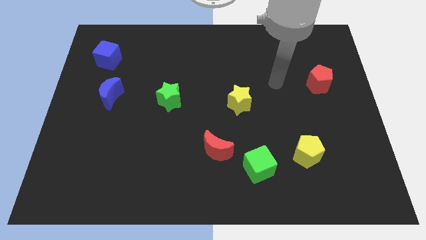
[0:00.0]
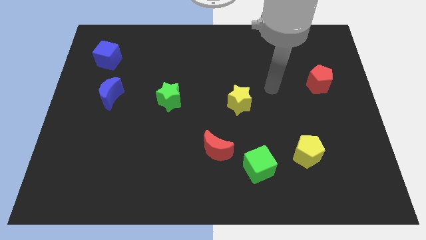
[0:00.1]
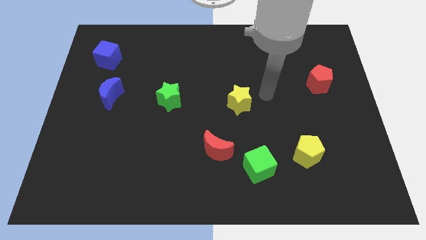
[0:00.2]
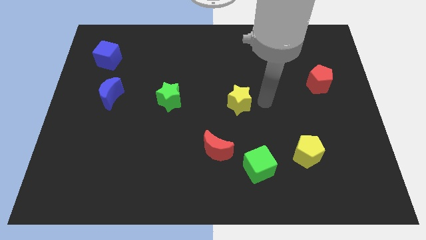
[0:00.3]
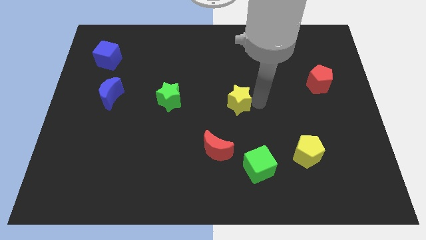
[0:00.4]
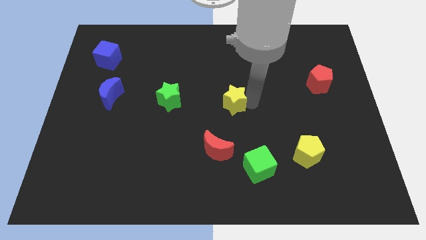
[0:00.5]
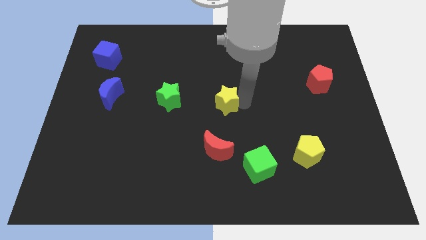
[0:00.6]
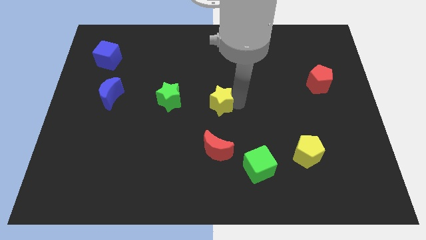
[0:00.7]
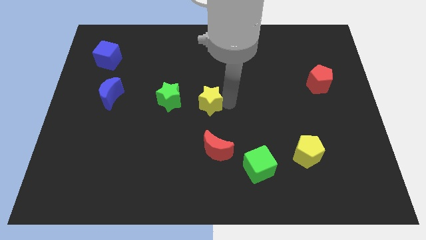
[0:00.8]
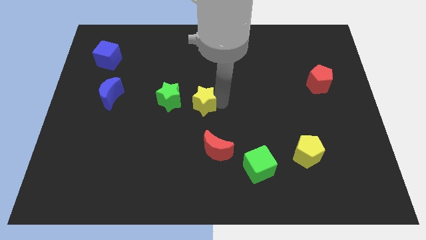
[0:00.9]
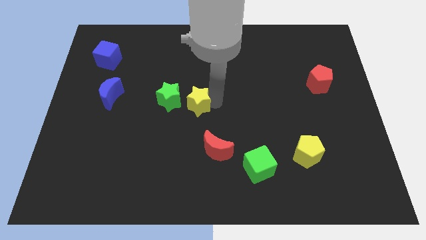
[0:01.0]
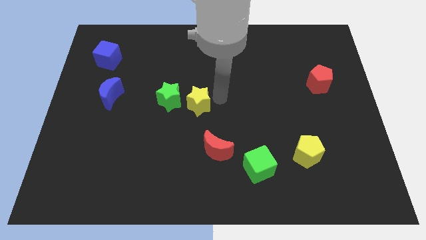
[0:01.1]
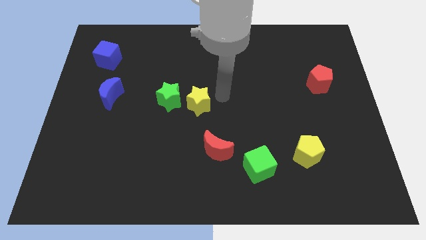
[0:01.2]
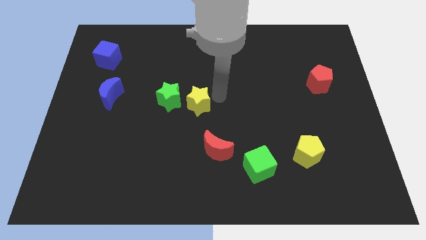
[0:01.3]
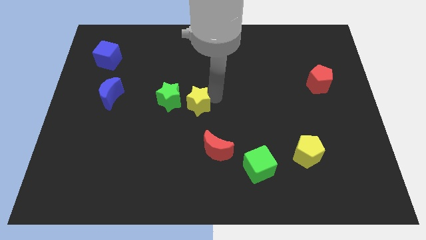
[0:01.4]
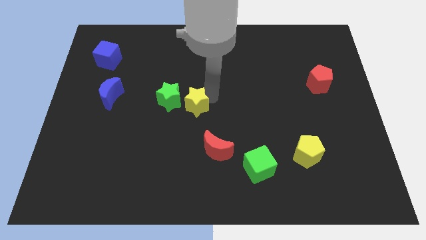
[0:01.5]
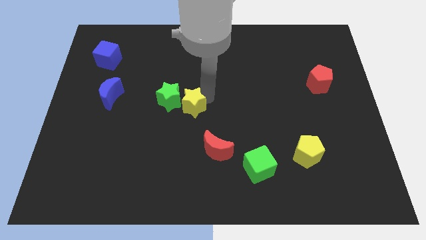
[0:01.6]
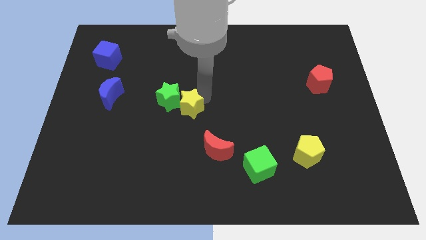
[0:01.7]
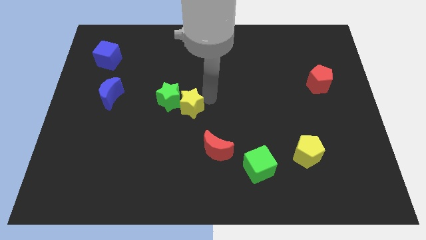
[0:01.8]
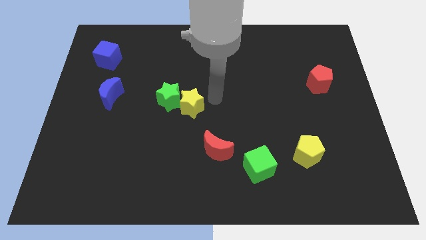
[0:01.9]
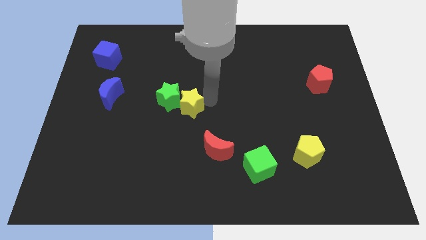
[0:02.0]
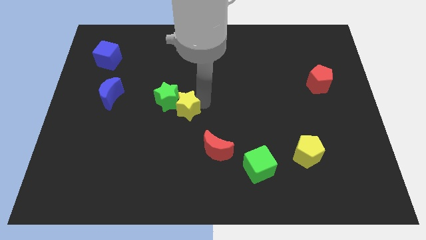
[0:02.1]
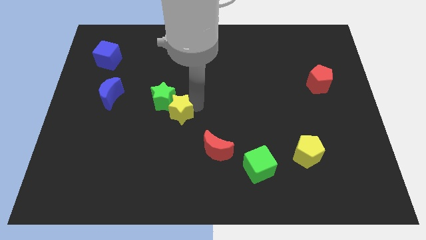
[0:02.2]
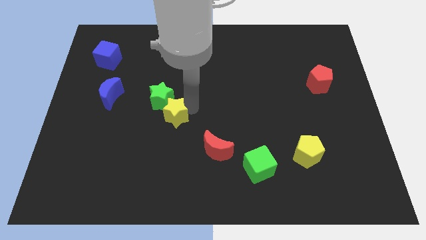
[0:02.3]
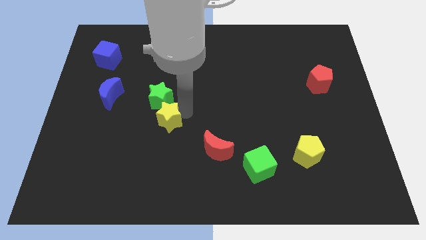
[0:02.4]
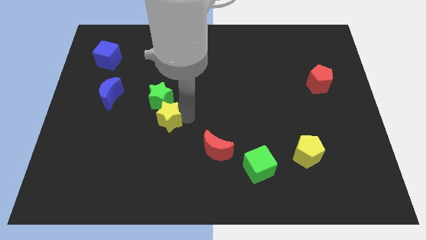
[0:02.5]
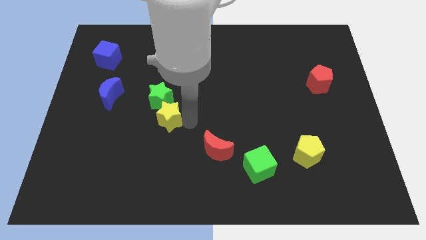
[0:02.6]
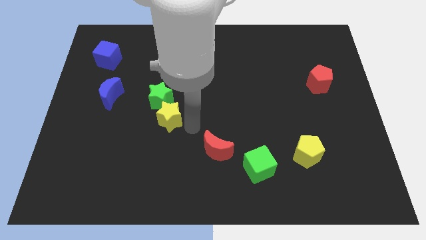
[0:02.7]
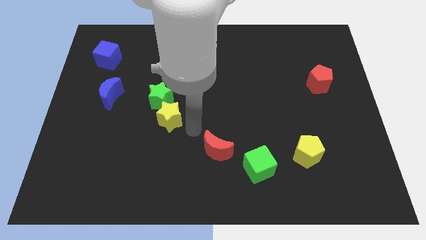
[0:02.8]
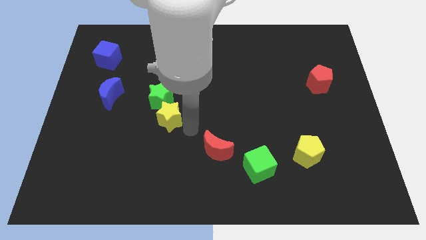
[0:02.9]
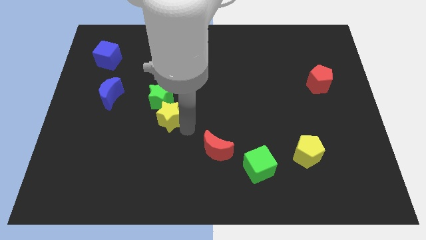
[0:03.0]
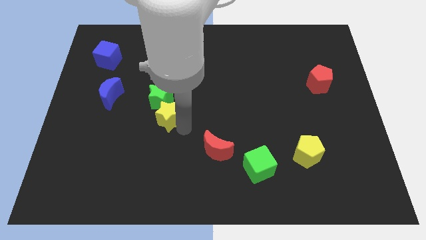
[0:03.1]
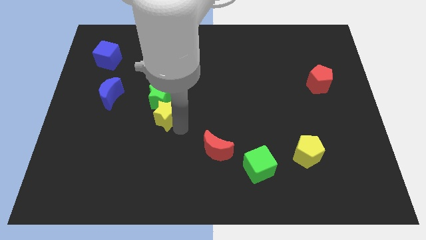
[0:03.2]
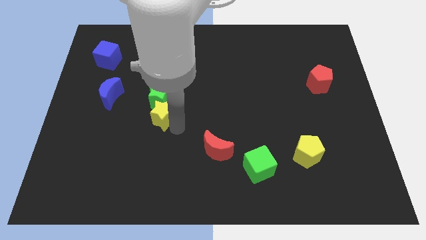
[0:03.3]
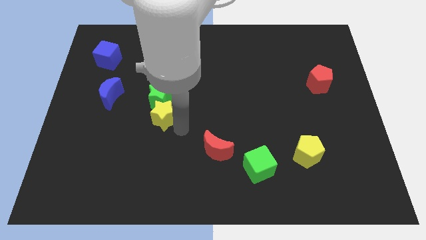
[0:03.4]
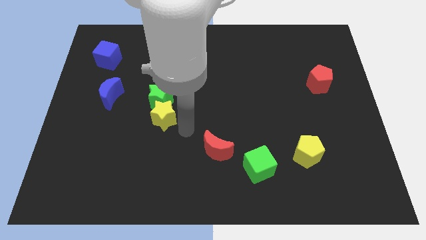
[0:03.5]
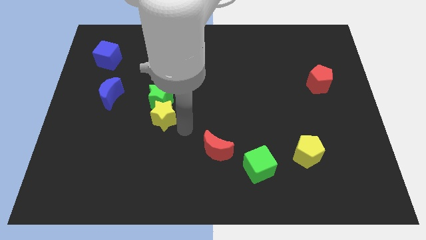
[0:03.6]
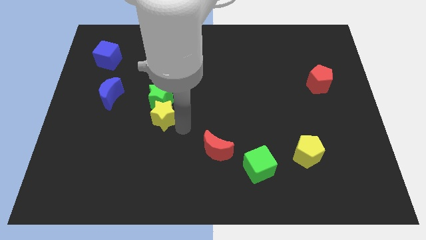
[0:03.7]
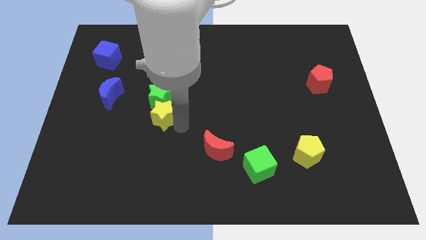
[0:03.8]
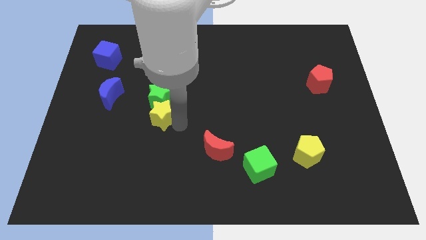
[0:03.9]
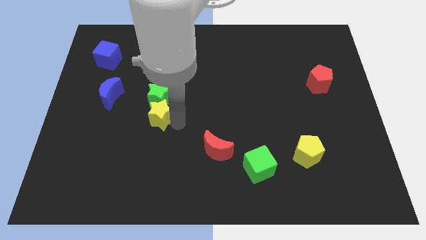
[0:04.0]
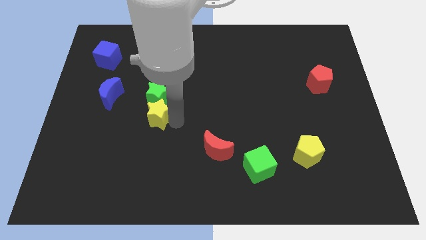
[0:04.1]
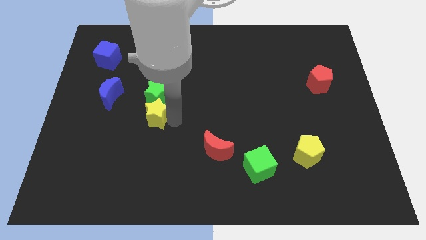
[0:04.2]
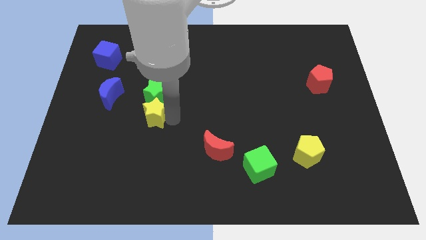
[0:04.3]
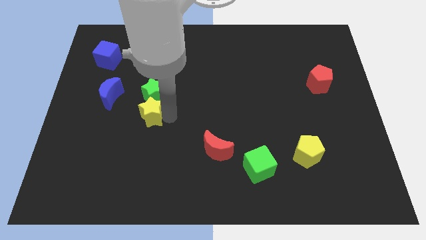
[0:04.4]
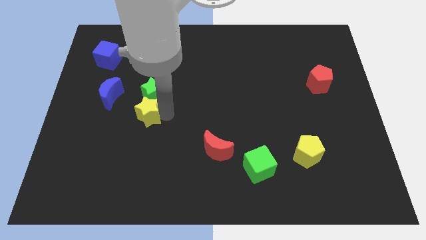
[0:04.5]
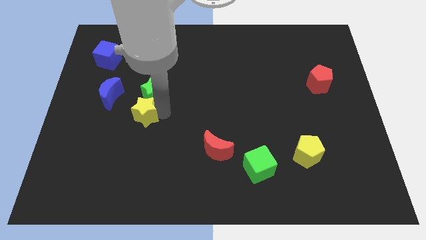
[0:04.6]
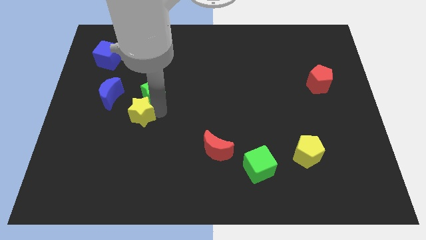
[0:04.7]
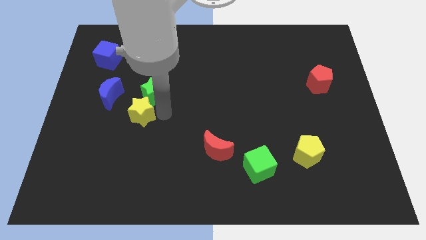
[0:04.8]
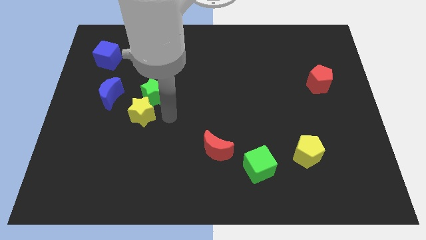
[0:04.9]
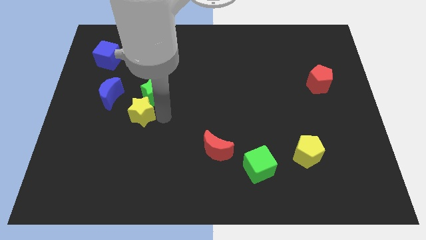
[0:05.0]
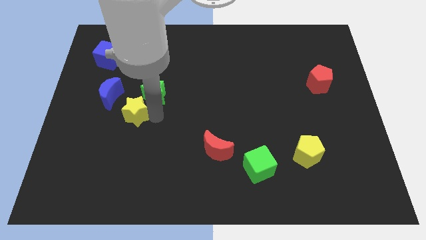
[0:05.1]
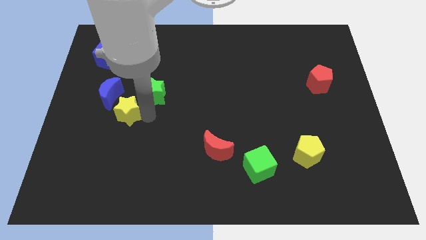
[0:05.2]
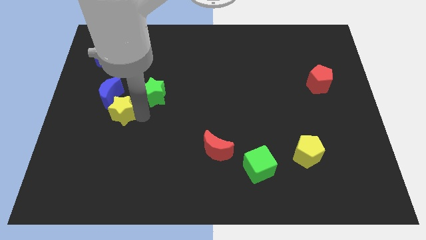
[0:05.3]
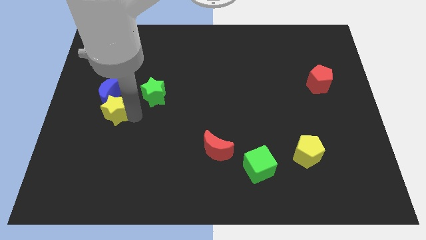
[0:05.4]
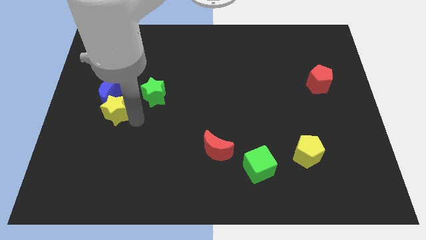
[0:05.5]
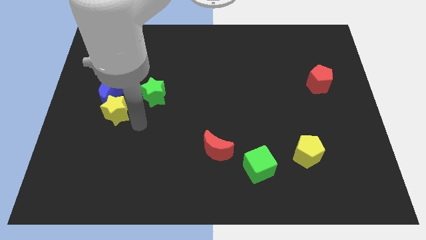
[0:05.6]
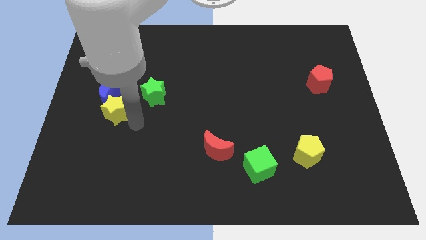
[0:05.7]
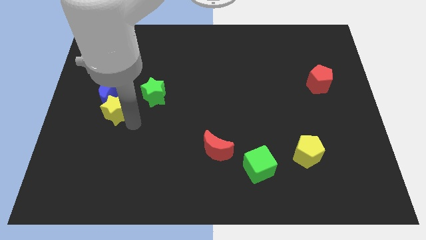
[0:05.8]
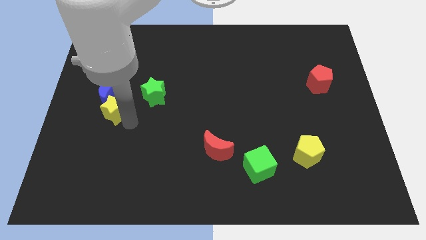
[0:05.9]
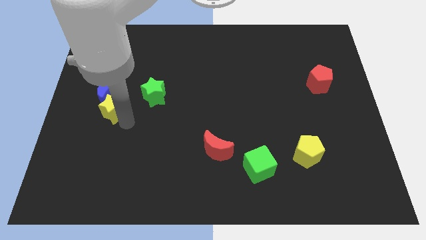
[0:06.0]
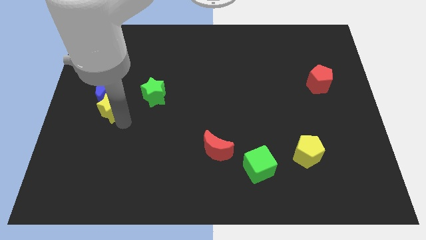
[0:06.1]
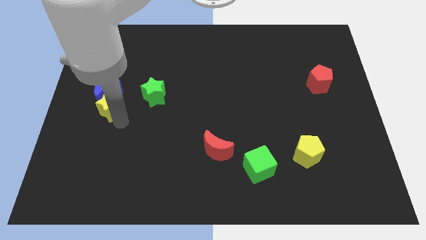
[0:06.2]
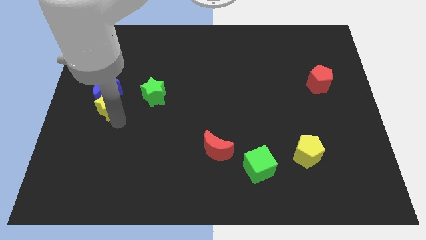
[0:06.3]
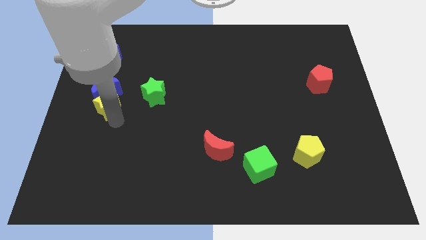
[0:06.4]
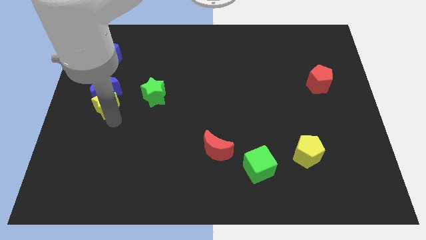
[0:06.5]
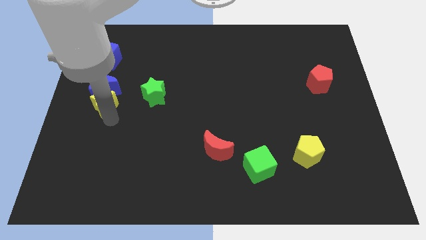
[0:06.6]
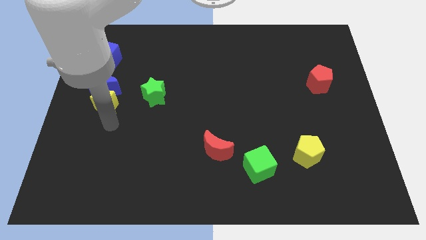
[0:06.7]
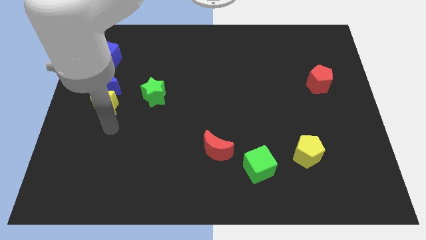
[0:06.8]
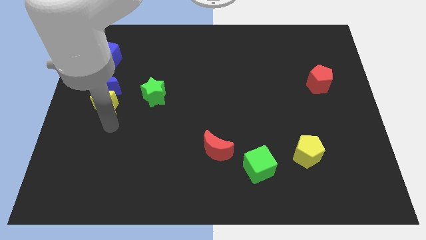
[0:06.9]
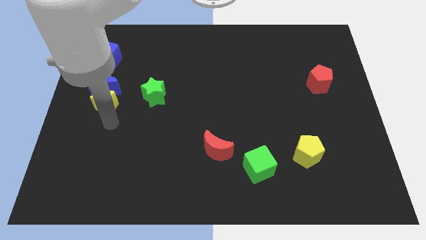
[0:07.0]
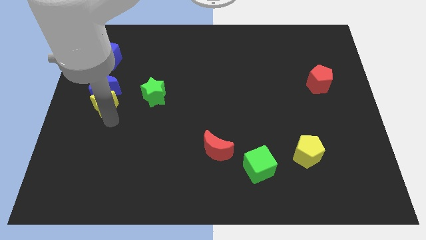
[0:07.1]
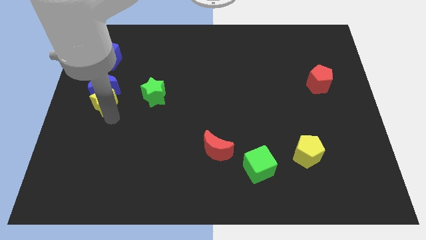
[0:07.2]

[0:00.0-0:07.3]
push the yellow star to the bottom of the blue cube

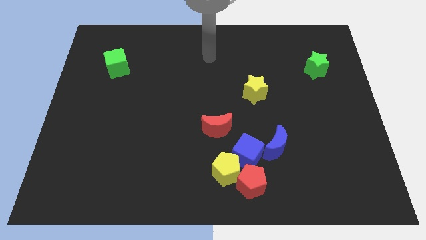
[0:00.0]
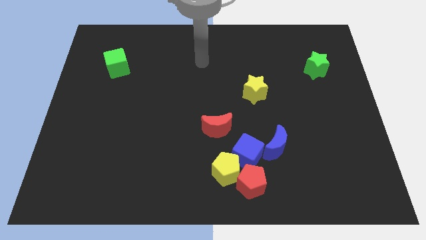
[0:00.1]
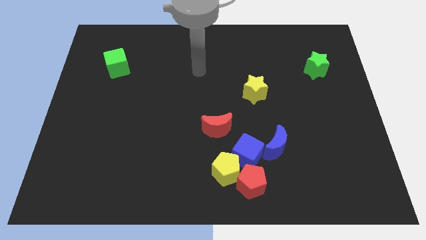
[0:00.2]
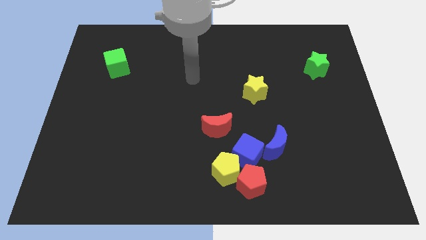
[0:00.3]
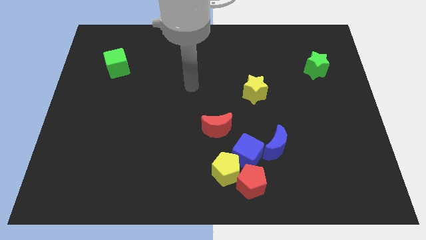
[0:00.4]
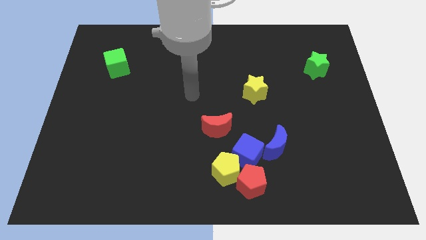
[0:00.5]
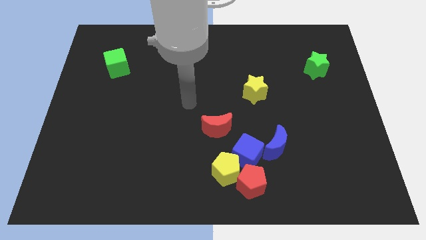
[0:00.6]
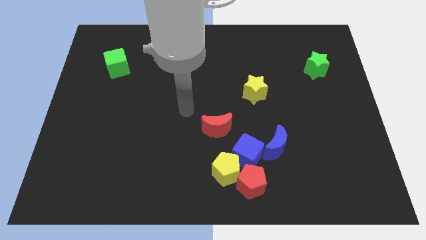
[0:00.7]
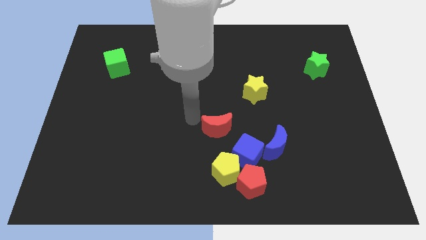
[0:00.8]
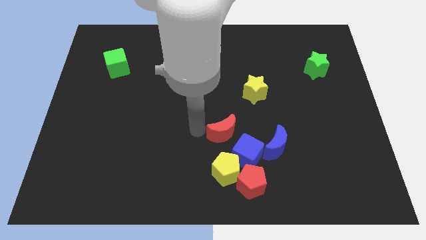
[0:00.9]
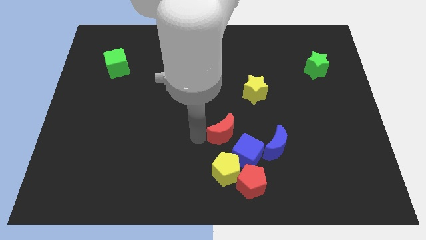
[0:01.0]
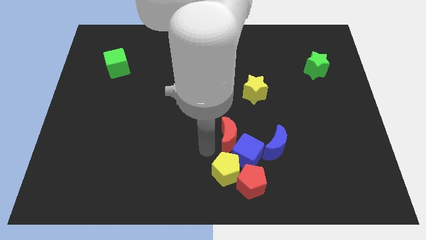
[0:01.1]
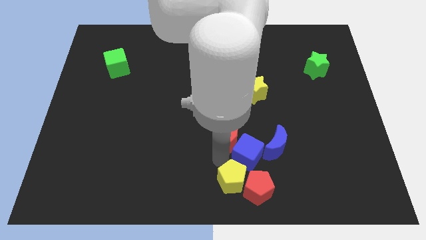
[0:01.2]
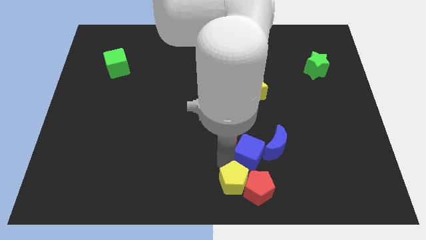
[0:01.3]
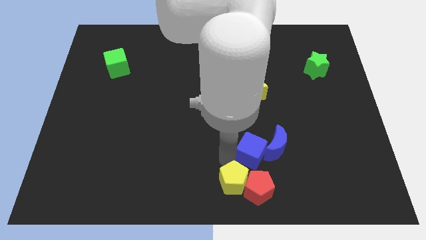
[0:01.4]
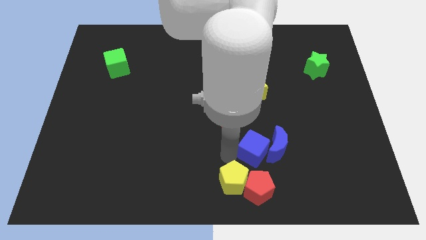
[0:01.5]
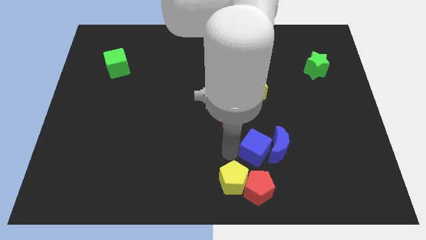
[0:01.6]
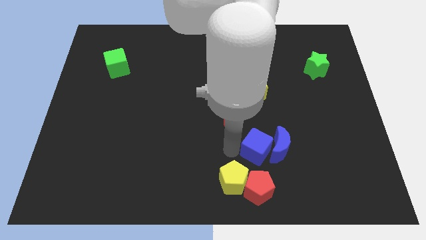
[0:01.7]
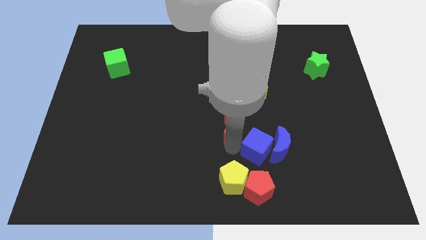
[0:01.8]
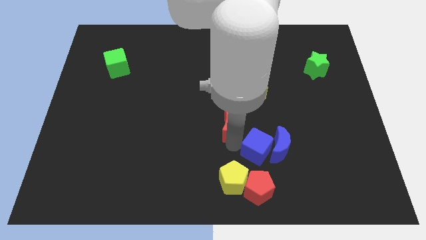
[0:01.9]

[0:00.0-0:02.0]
push the red moon diagonally down and to the left of the yellow star
